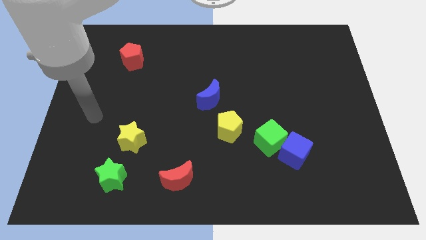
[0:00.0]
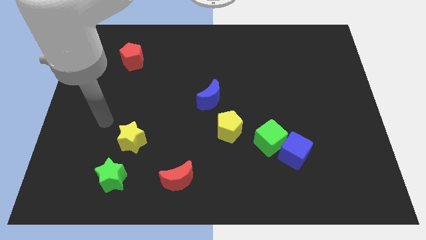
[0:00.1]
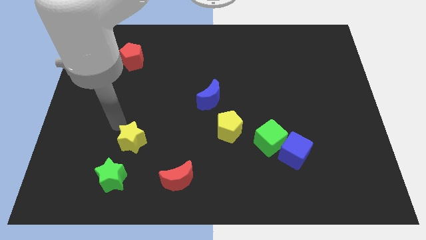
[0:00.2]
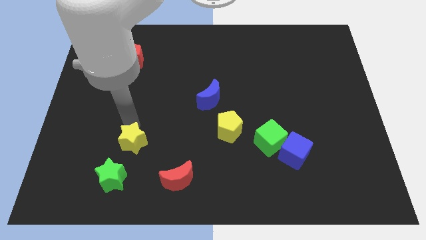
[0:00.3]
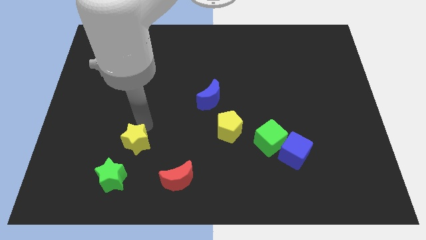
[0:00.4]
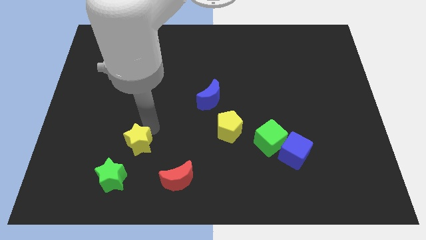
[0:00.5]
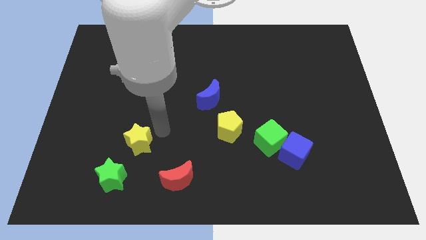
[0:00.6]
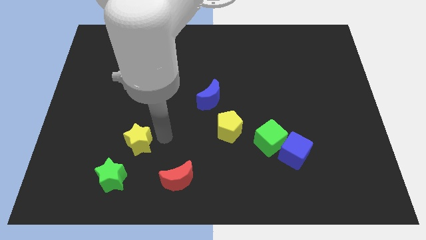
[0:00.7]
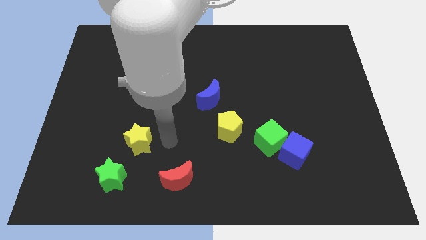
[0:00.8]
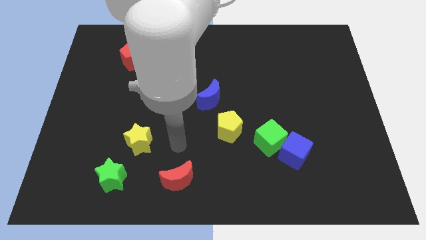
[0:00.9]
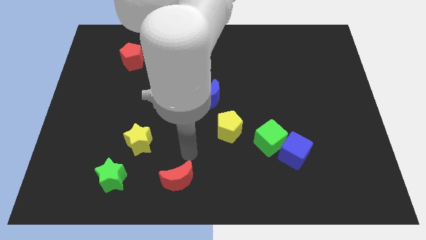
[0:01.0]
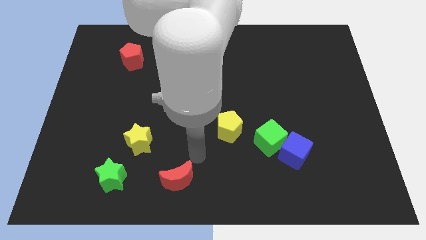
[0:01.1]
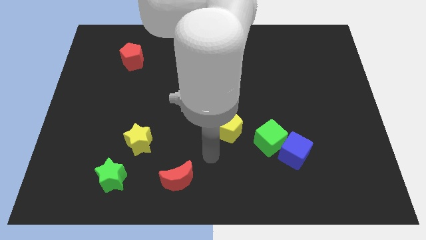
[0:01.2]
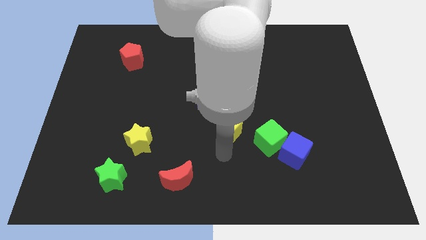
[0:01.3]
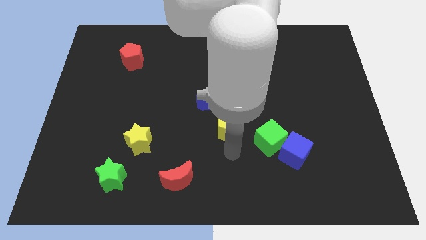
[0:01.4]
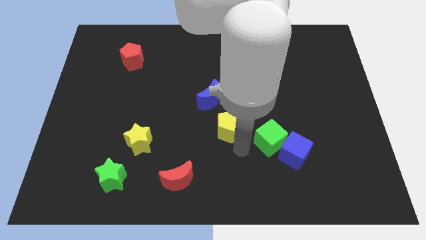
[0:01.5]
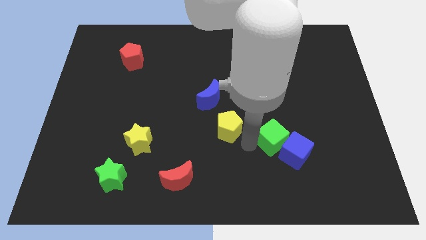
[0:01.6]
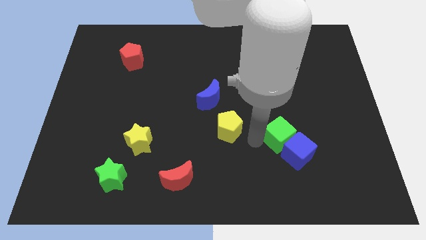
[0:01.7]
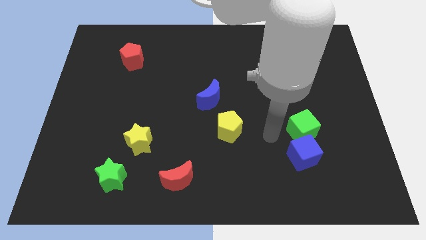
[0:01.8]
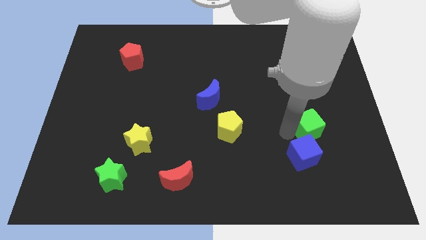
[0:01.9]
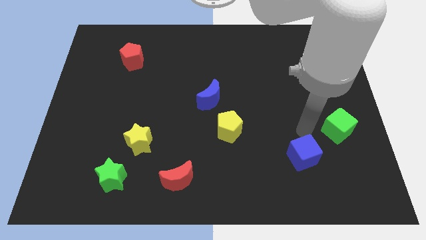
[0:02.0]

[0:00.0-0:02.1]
pull the blue cube apart from the green cube

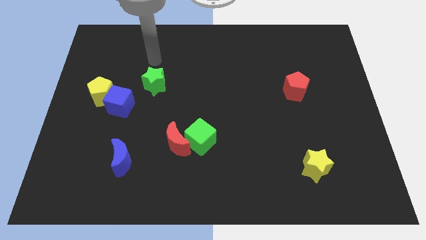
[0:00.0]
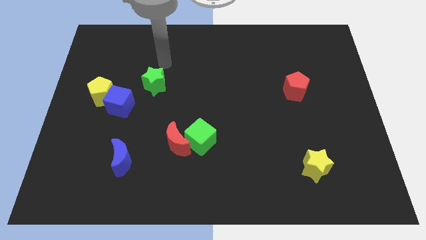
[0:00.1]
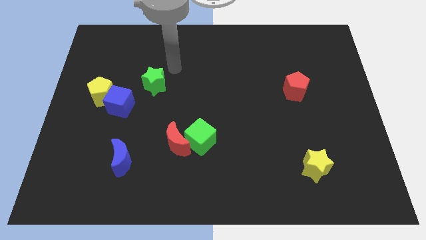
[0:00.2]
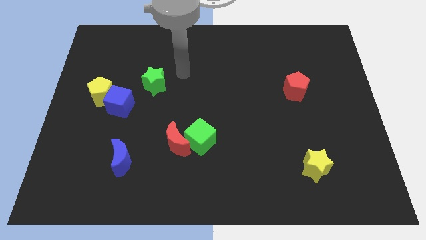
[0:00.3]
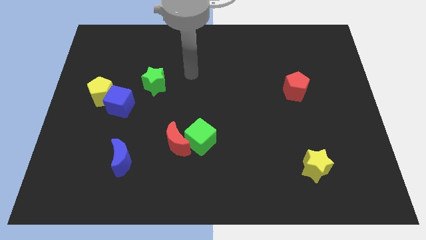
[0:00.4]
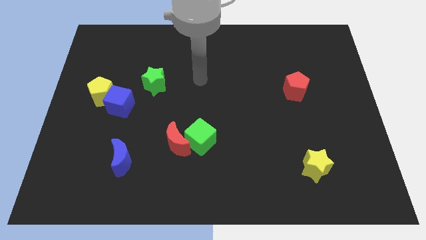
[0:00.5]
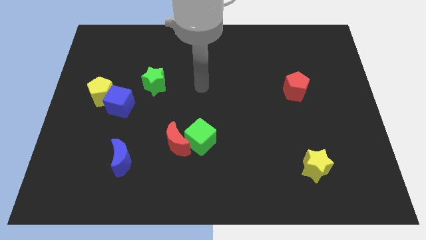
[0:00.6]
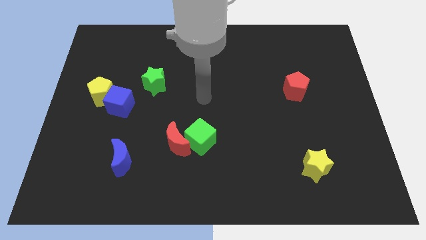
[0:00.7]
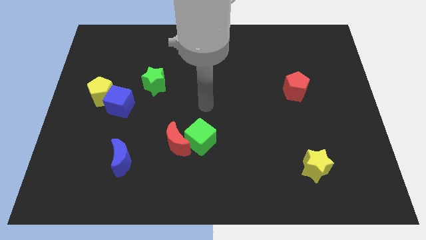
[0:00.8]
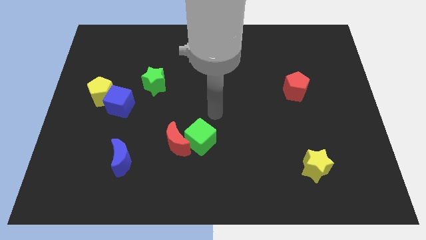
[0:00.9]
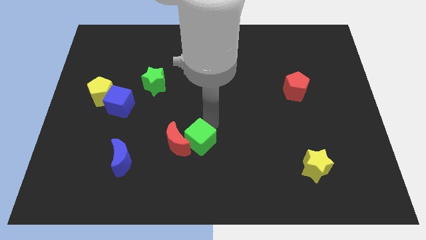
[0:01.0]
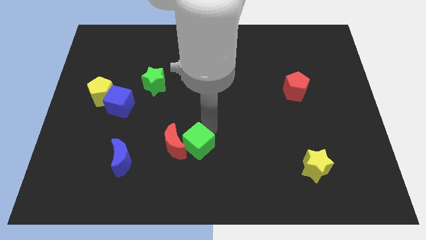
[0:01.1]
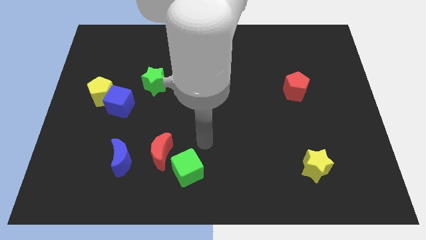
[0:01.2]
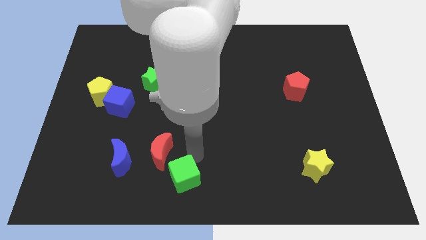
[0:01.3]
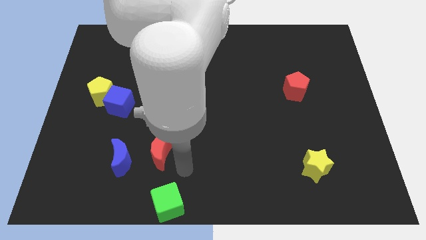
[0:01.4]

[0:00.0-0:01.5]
move the red moon away from the green cube

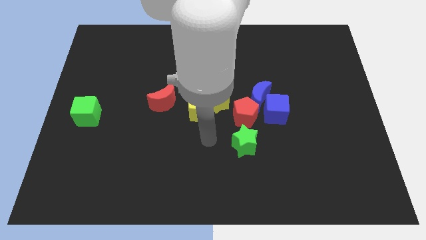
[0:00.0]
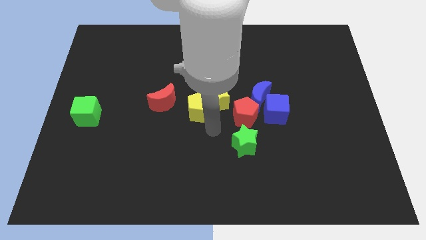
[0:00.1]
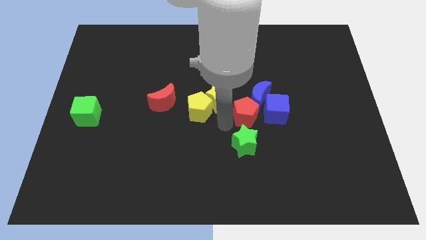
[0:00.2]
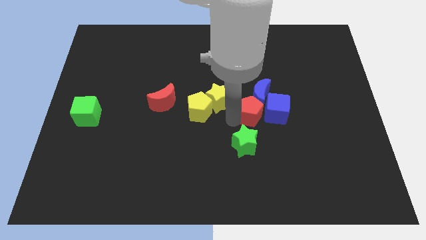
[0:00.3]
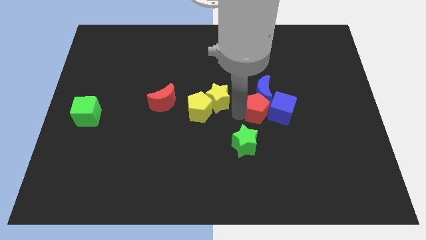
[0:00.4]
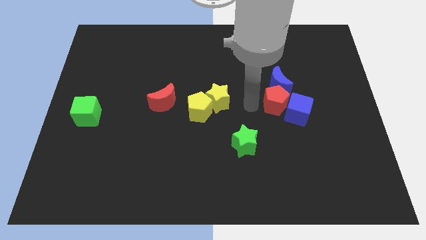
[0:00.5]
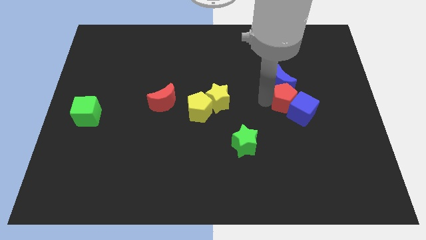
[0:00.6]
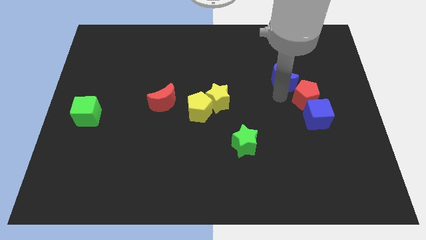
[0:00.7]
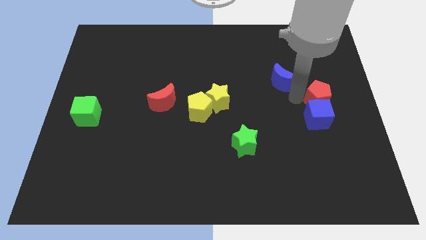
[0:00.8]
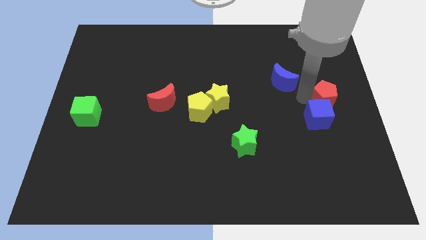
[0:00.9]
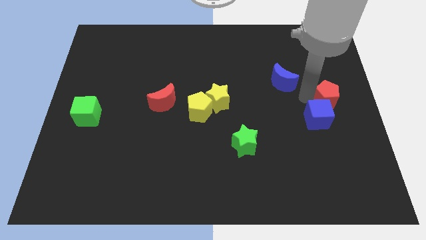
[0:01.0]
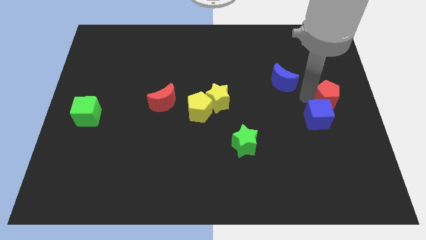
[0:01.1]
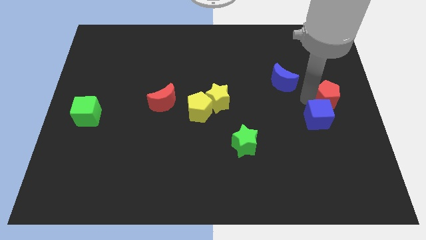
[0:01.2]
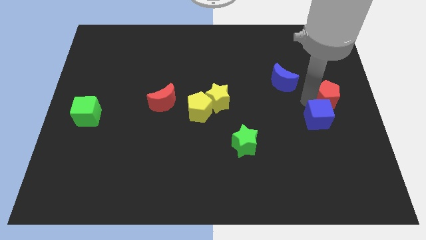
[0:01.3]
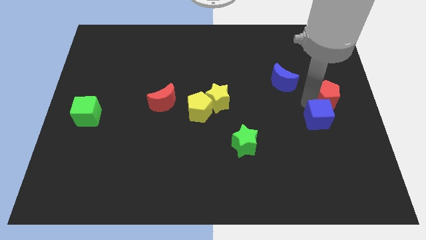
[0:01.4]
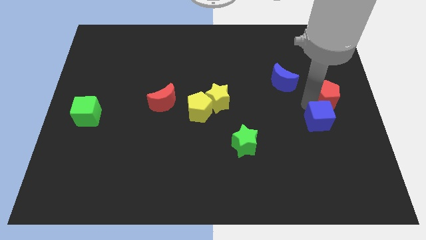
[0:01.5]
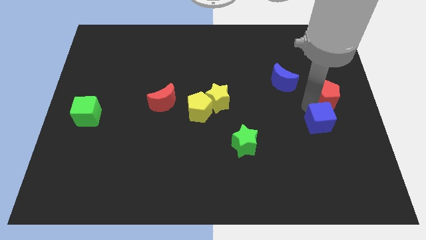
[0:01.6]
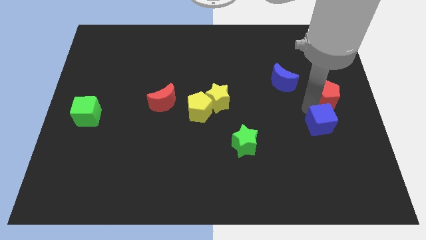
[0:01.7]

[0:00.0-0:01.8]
separate the blue cube from the blue moon and red pentagon

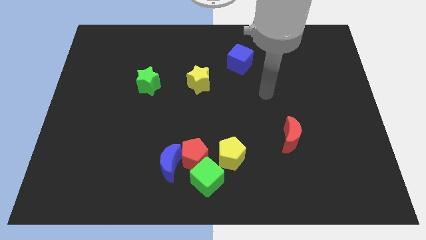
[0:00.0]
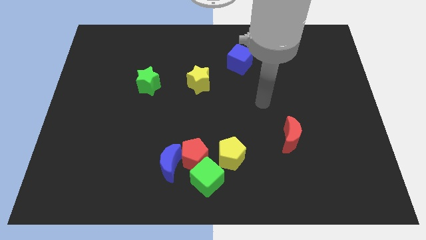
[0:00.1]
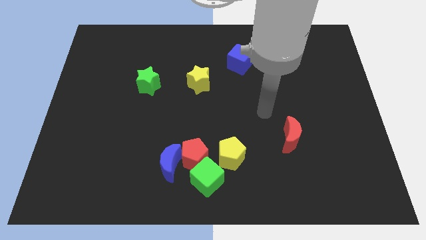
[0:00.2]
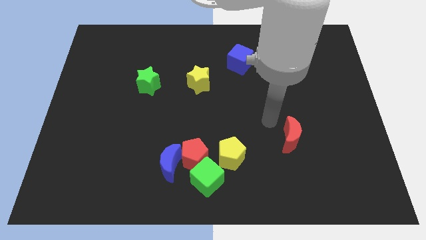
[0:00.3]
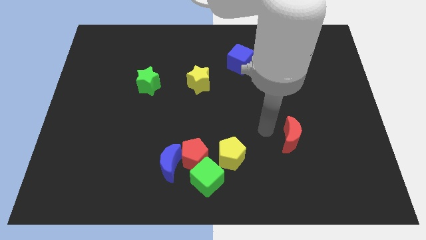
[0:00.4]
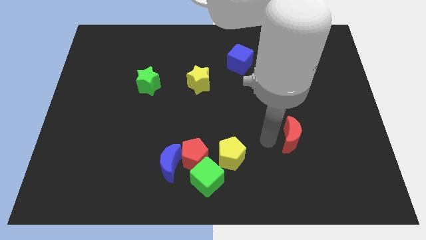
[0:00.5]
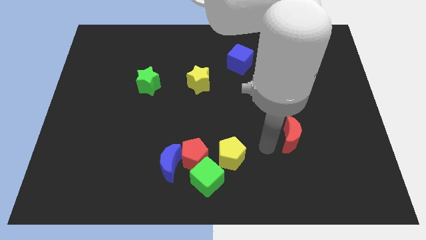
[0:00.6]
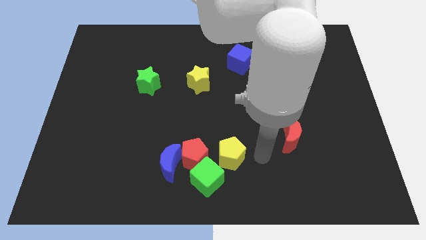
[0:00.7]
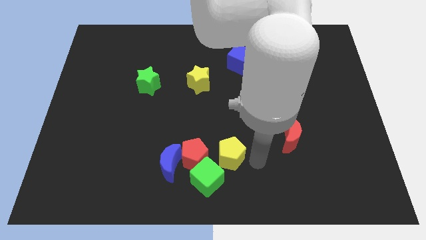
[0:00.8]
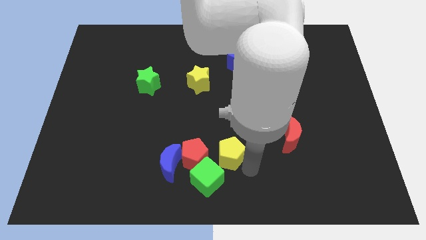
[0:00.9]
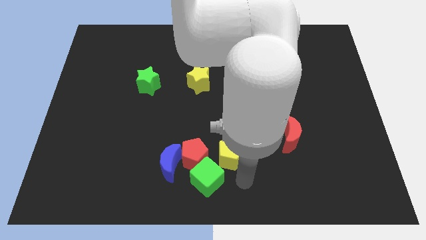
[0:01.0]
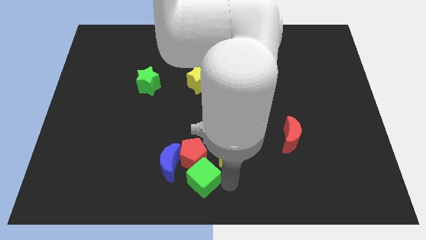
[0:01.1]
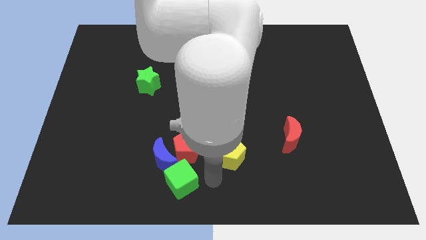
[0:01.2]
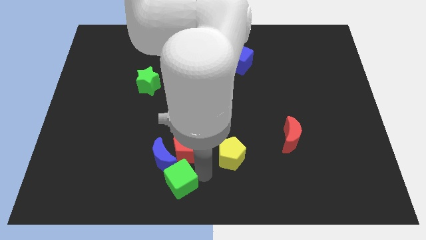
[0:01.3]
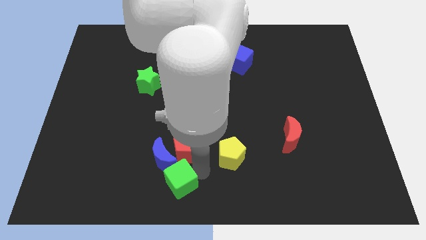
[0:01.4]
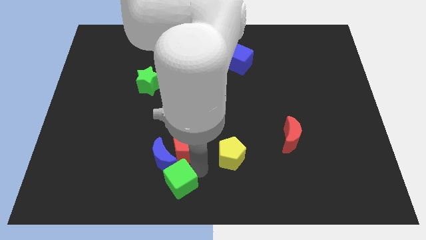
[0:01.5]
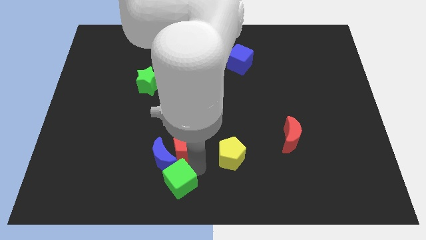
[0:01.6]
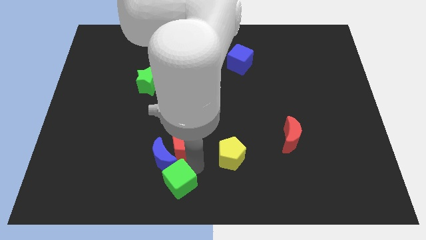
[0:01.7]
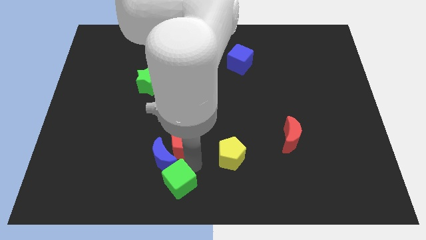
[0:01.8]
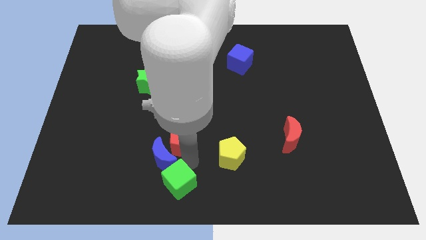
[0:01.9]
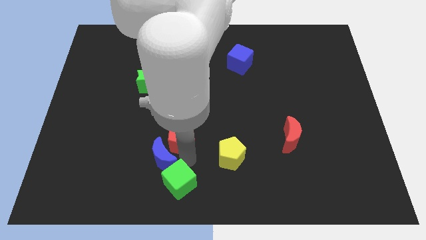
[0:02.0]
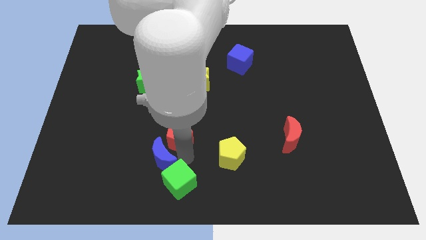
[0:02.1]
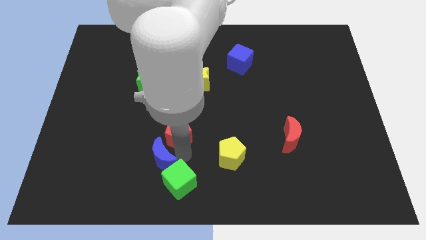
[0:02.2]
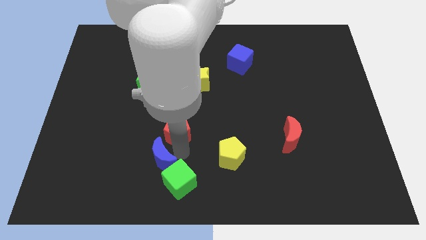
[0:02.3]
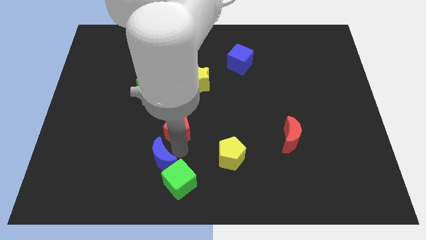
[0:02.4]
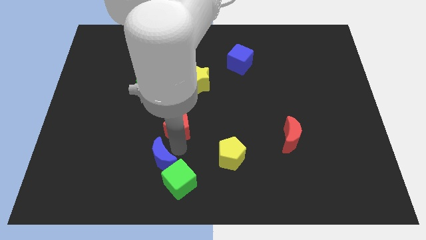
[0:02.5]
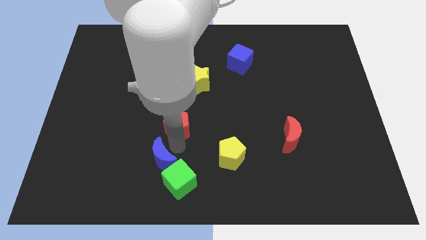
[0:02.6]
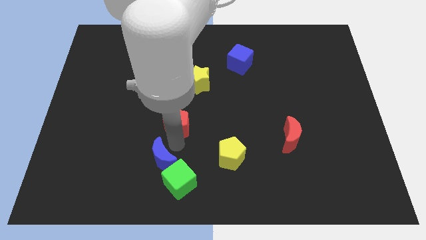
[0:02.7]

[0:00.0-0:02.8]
move the red pentagon away from the group of blocks

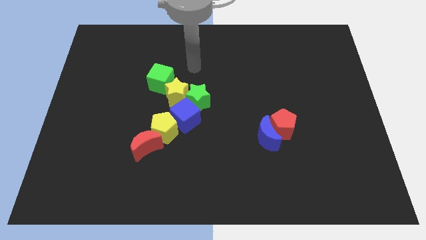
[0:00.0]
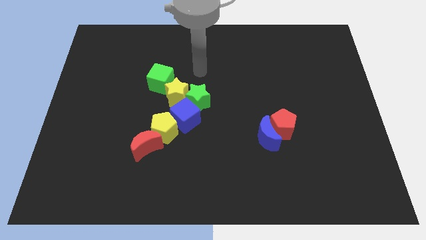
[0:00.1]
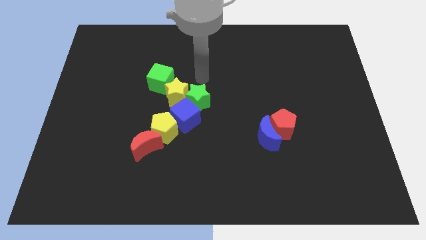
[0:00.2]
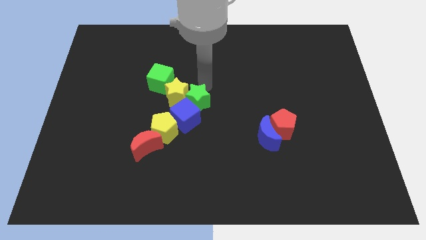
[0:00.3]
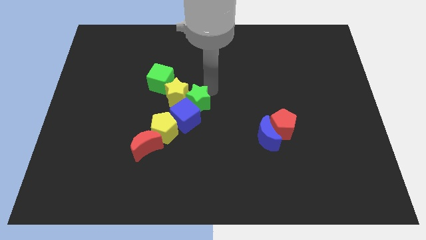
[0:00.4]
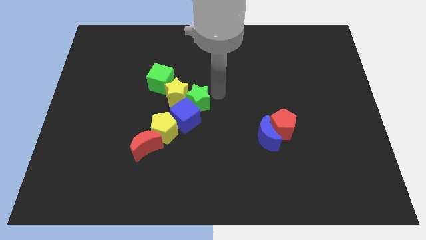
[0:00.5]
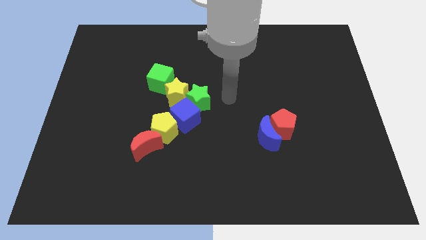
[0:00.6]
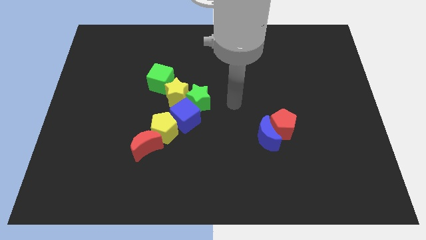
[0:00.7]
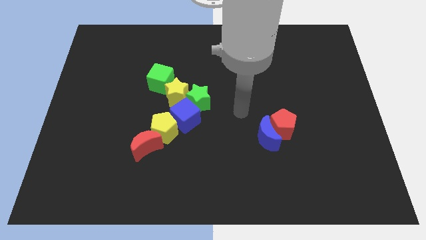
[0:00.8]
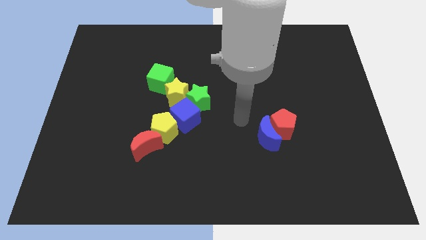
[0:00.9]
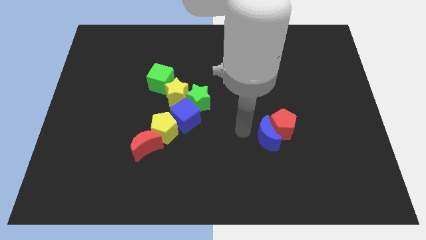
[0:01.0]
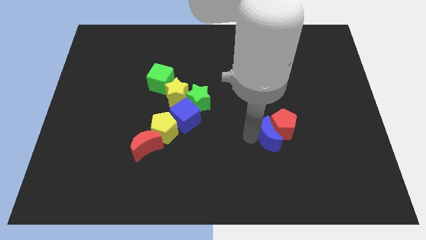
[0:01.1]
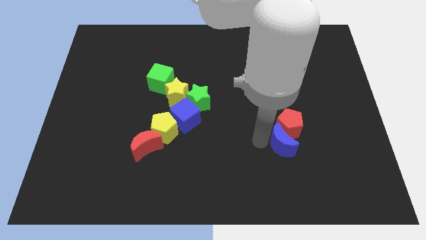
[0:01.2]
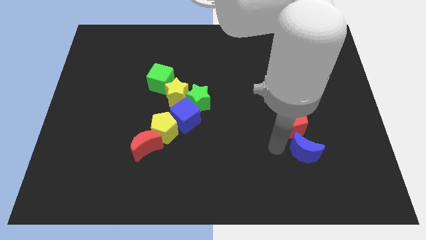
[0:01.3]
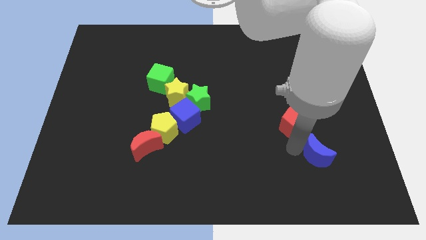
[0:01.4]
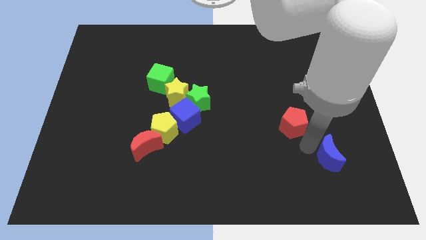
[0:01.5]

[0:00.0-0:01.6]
pull the red pentagon apart from the blue moon
